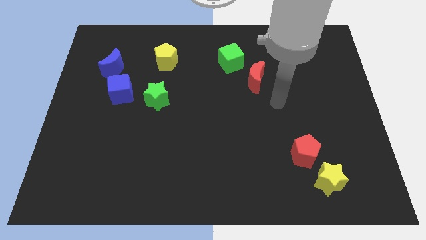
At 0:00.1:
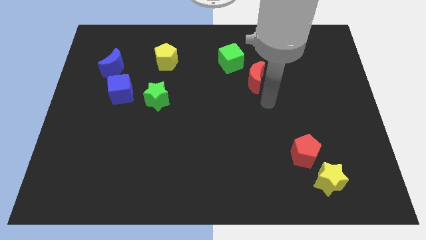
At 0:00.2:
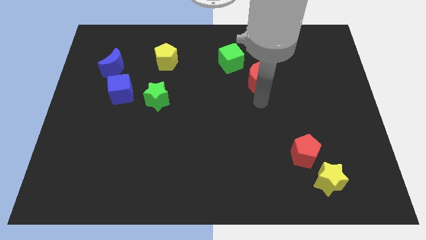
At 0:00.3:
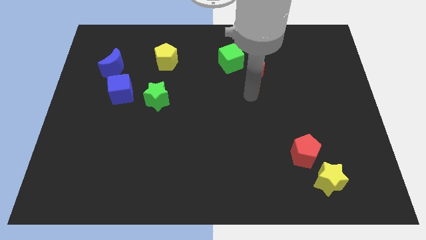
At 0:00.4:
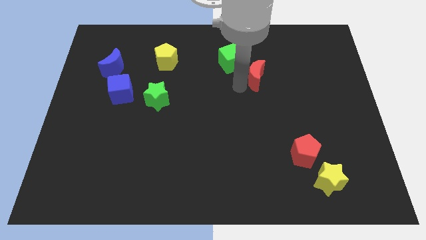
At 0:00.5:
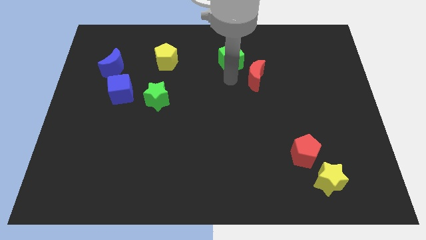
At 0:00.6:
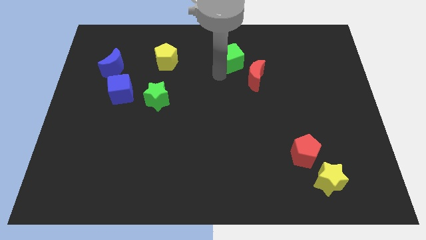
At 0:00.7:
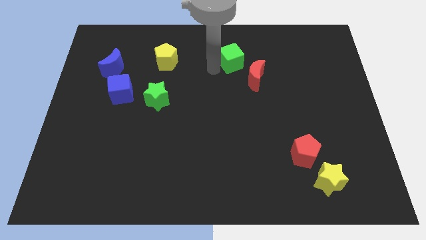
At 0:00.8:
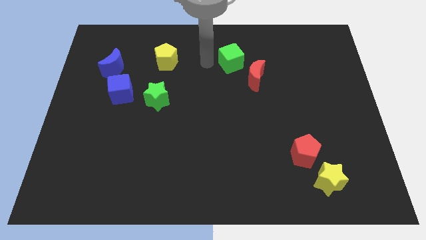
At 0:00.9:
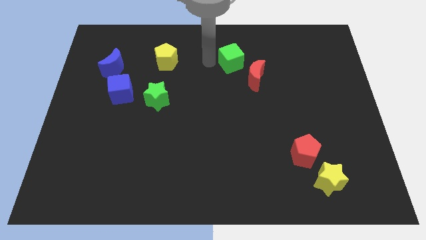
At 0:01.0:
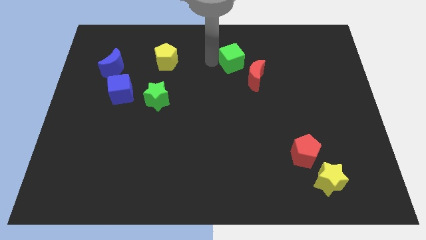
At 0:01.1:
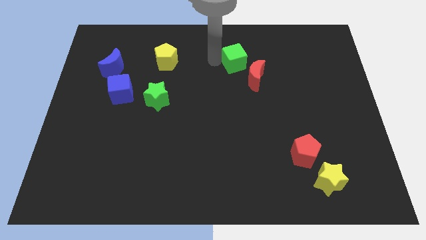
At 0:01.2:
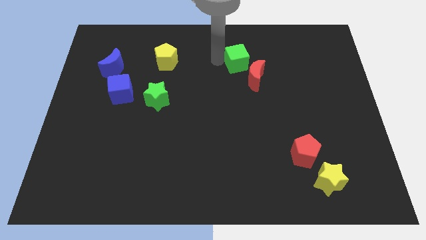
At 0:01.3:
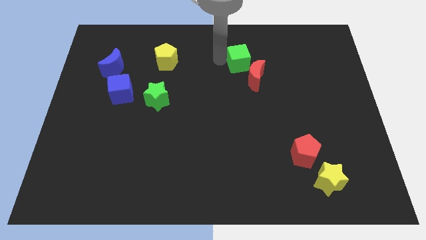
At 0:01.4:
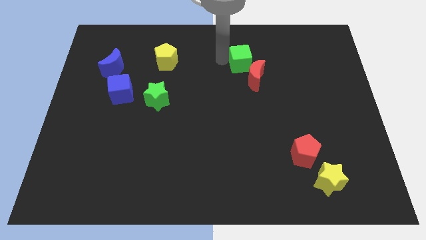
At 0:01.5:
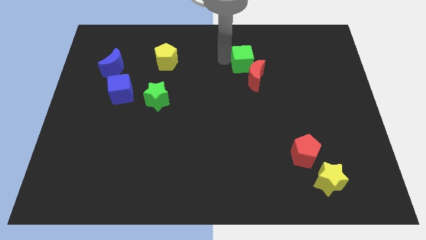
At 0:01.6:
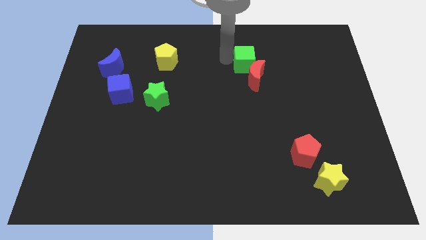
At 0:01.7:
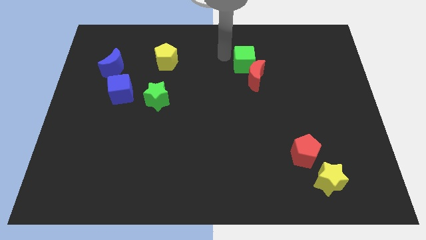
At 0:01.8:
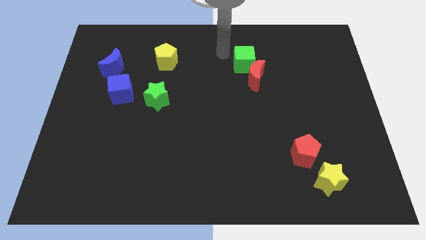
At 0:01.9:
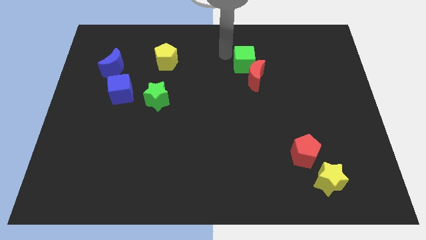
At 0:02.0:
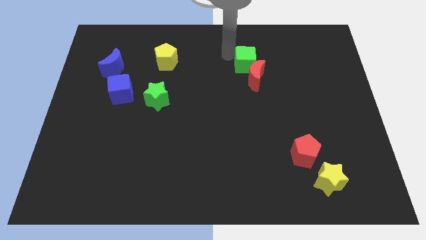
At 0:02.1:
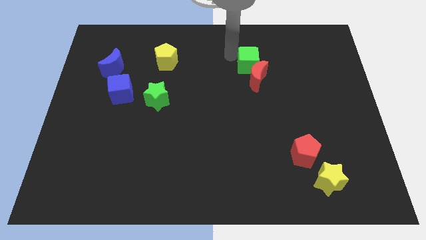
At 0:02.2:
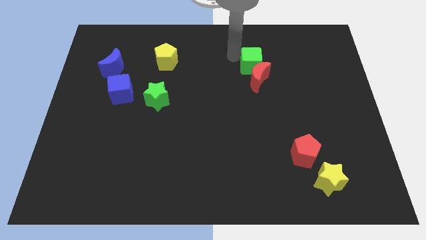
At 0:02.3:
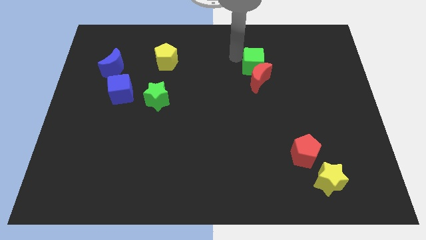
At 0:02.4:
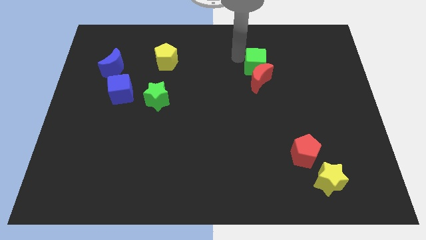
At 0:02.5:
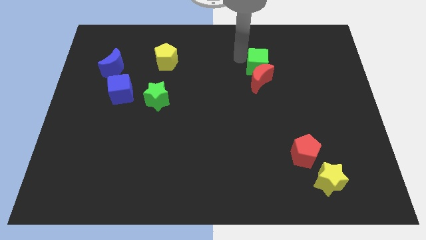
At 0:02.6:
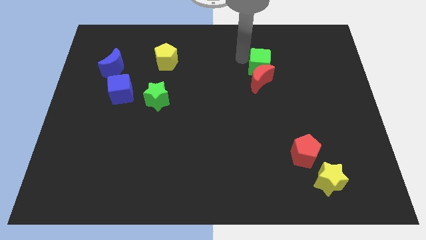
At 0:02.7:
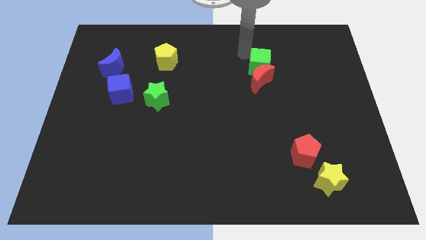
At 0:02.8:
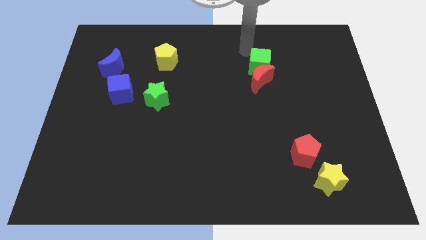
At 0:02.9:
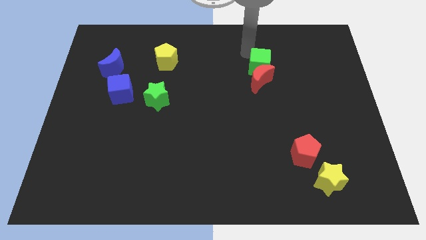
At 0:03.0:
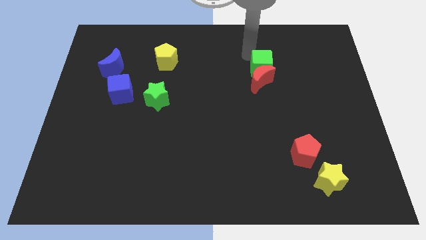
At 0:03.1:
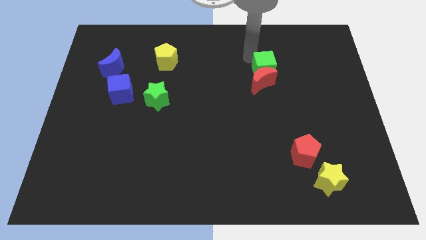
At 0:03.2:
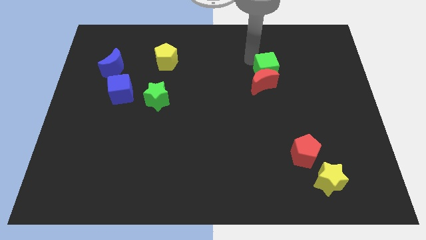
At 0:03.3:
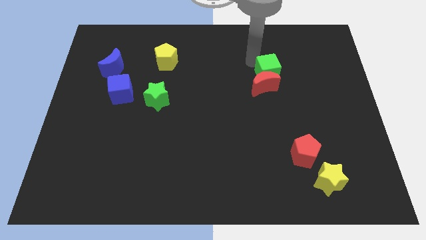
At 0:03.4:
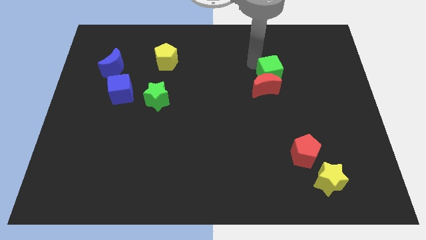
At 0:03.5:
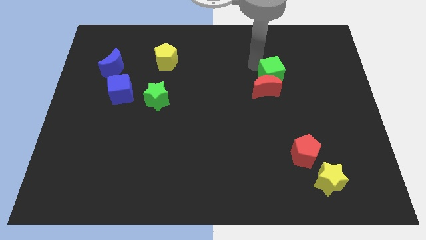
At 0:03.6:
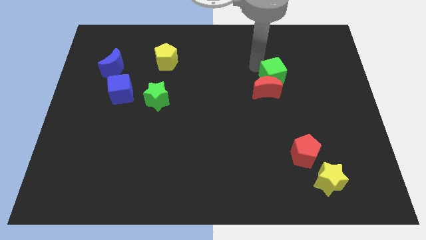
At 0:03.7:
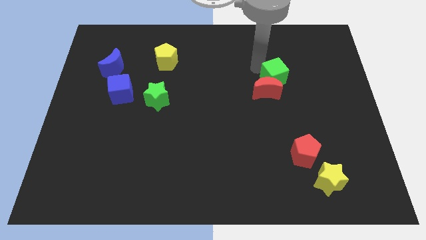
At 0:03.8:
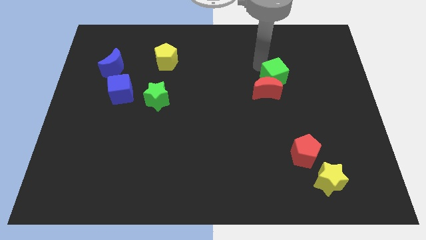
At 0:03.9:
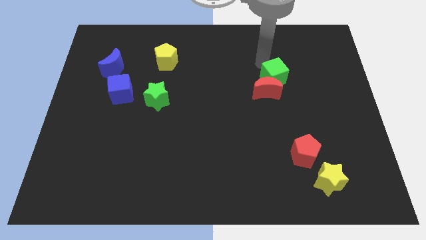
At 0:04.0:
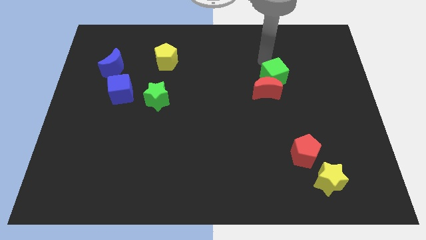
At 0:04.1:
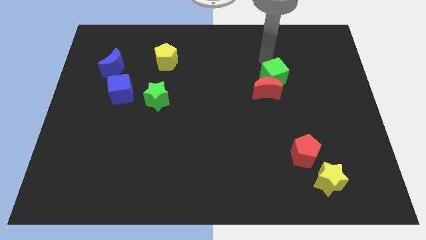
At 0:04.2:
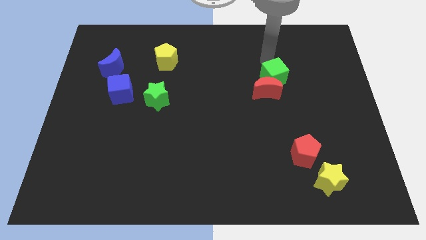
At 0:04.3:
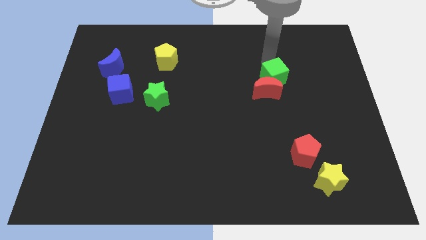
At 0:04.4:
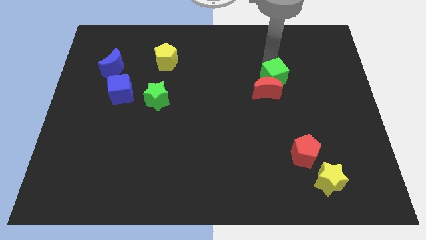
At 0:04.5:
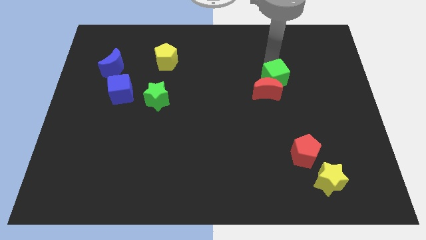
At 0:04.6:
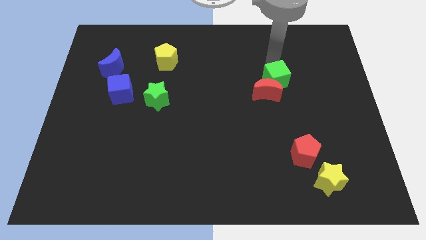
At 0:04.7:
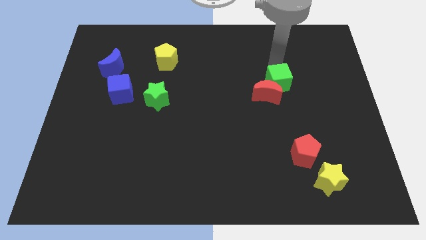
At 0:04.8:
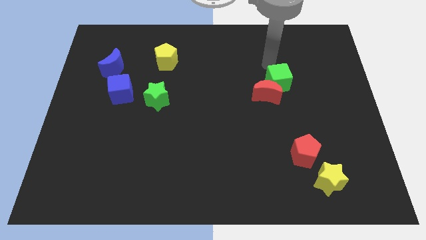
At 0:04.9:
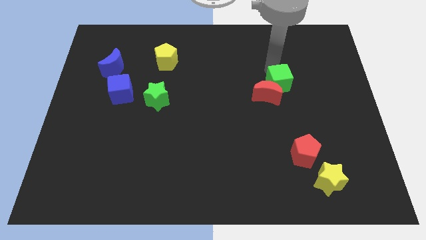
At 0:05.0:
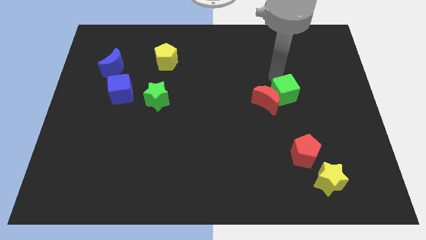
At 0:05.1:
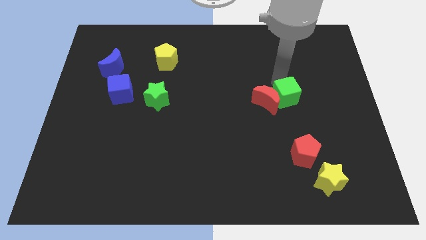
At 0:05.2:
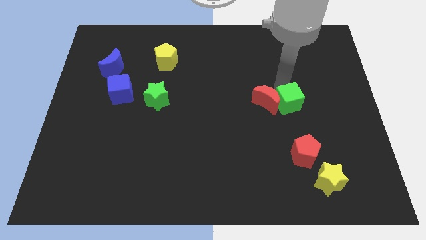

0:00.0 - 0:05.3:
slide the green cube to the top side of the red pentagon

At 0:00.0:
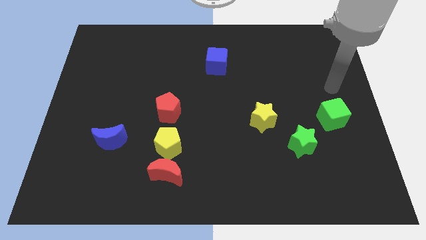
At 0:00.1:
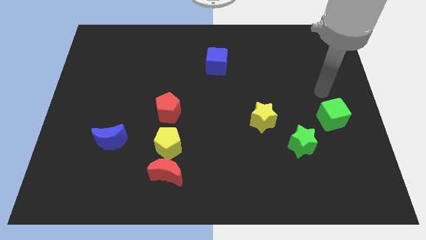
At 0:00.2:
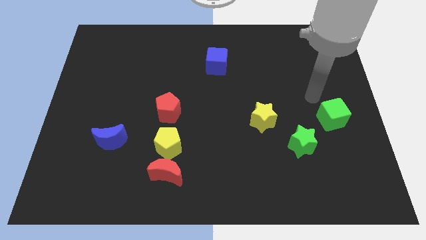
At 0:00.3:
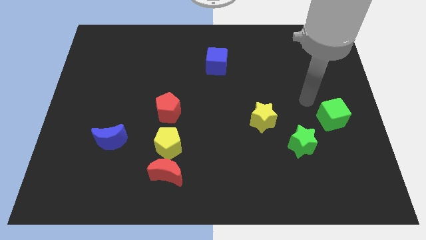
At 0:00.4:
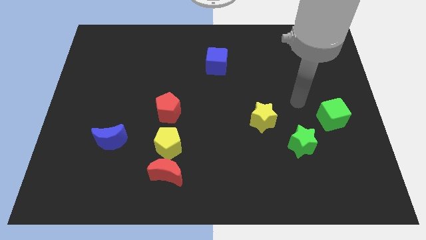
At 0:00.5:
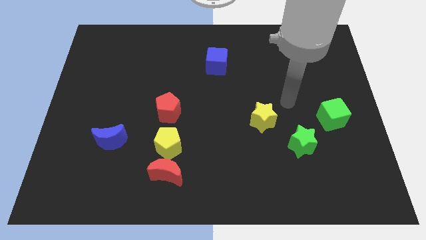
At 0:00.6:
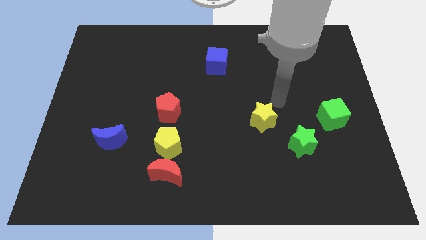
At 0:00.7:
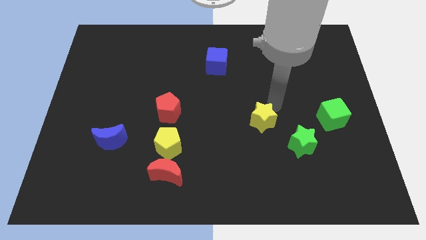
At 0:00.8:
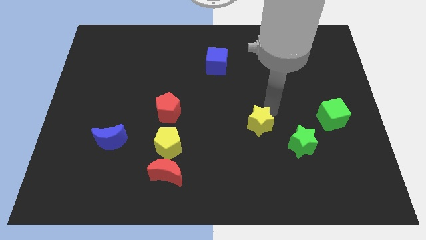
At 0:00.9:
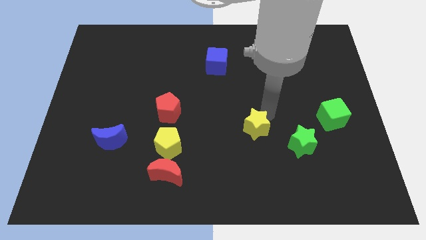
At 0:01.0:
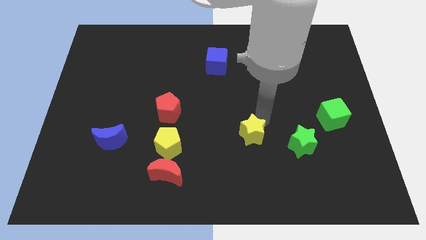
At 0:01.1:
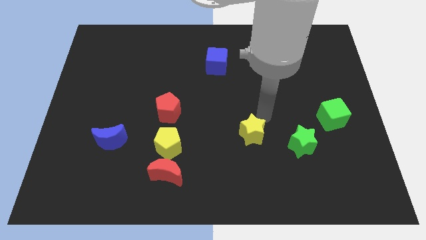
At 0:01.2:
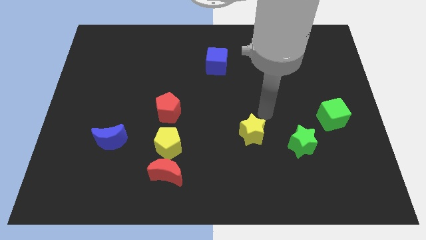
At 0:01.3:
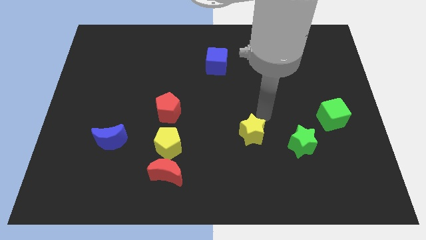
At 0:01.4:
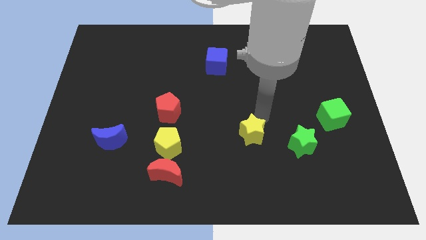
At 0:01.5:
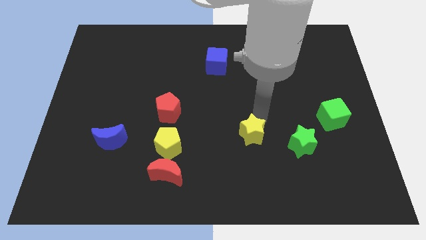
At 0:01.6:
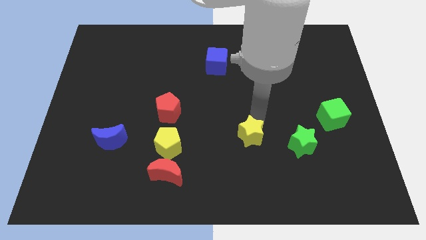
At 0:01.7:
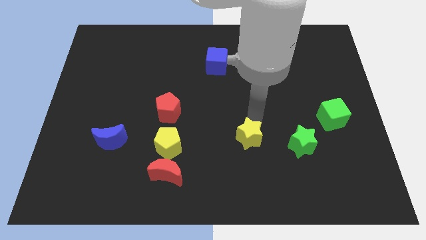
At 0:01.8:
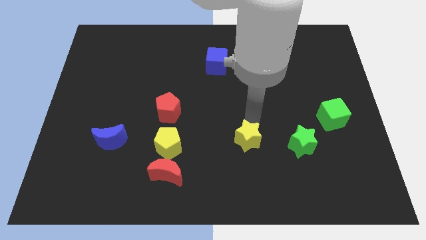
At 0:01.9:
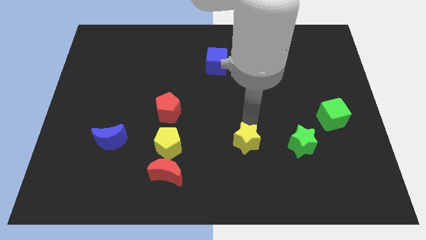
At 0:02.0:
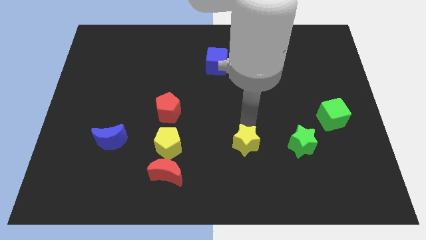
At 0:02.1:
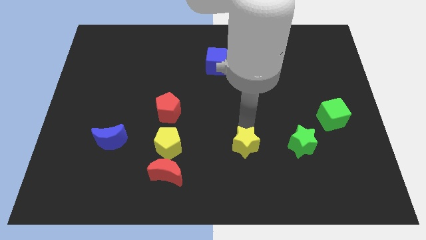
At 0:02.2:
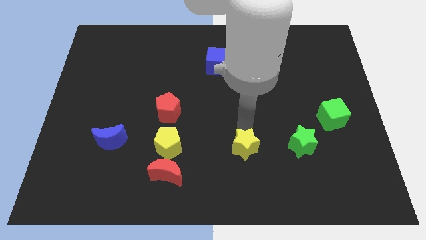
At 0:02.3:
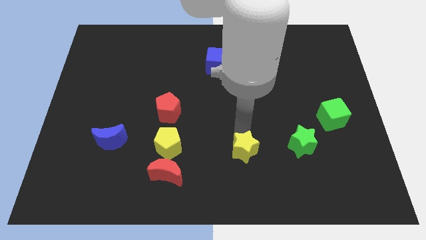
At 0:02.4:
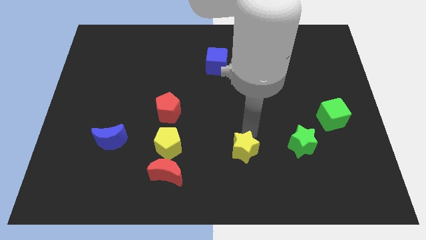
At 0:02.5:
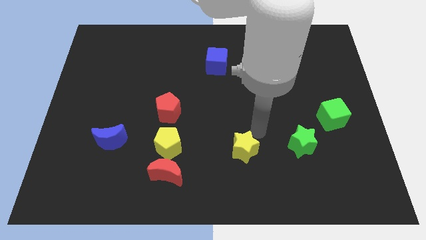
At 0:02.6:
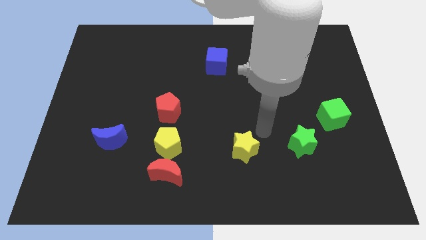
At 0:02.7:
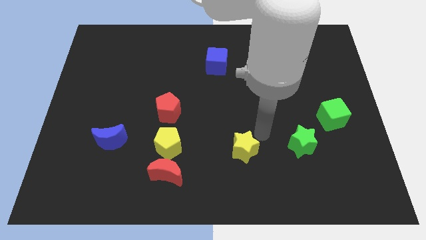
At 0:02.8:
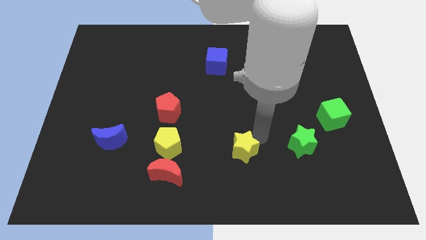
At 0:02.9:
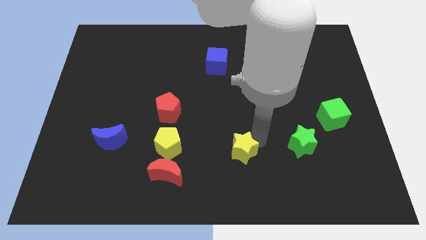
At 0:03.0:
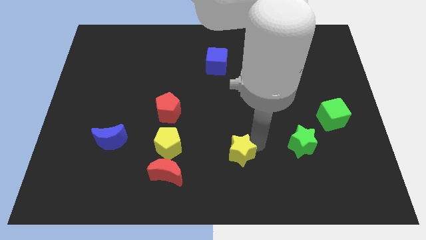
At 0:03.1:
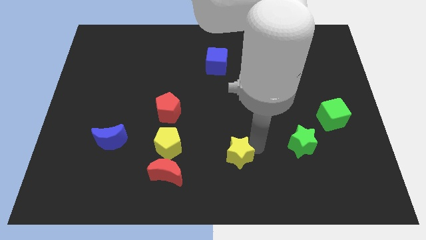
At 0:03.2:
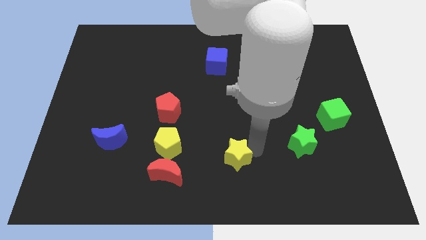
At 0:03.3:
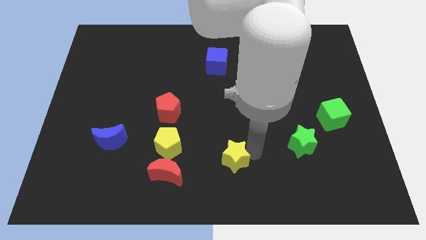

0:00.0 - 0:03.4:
move the yellow star just right of the red moon
